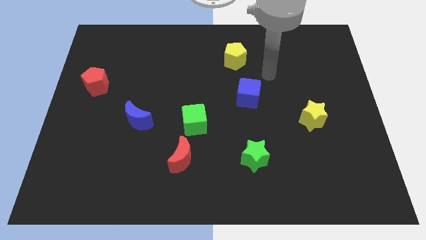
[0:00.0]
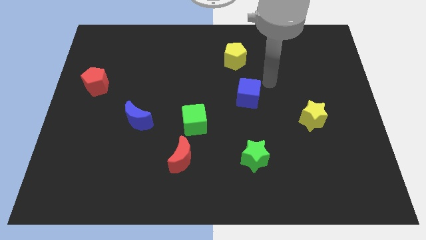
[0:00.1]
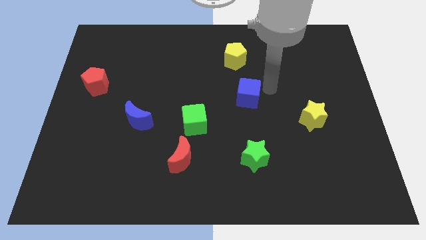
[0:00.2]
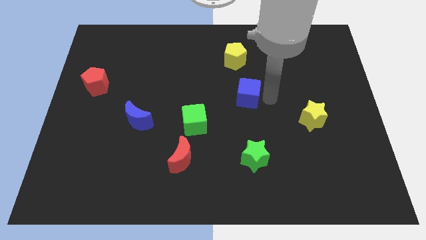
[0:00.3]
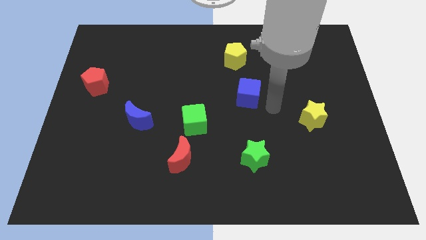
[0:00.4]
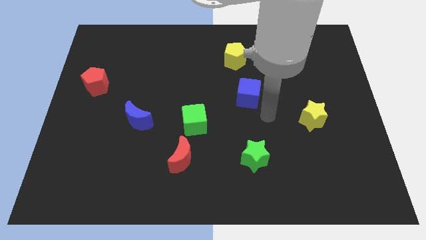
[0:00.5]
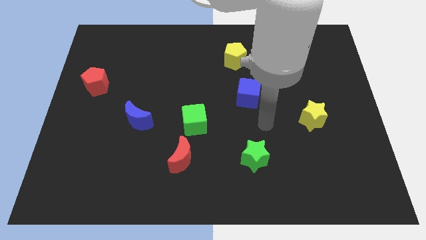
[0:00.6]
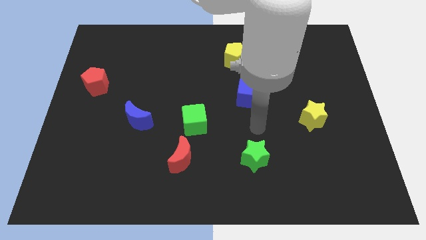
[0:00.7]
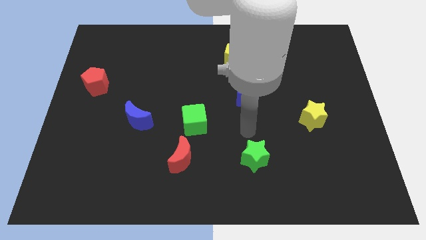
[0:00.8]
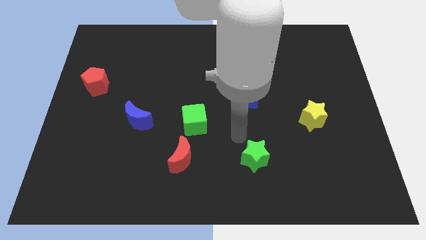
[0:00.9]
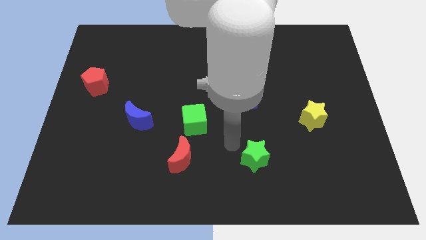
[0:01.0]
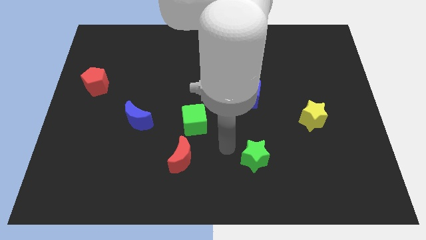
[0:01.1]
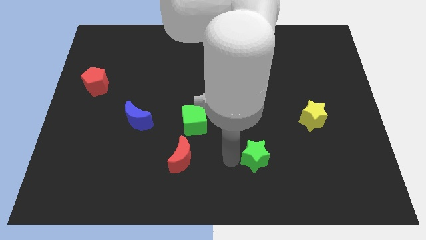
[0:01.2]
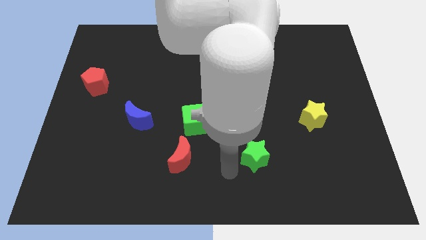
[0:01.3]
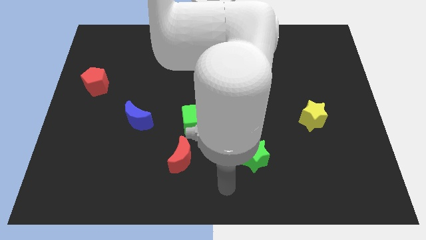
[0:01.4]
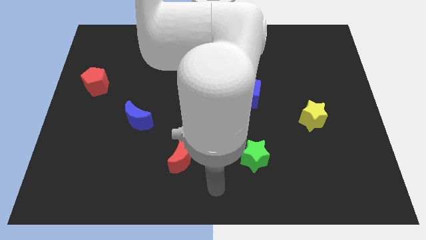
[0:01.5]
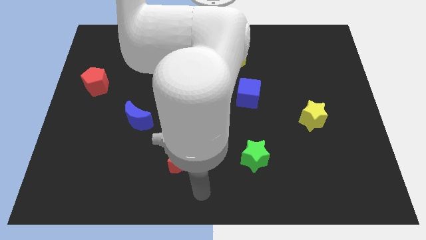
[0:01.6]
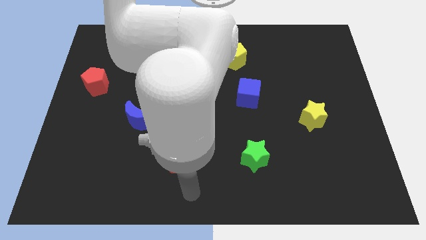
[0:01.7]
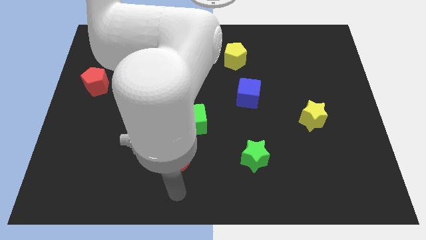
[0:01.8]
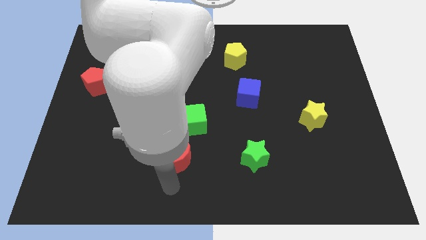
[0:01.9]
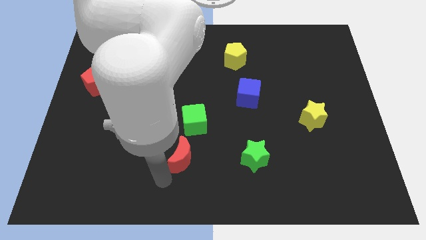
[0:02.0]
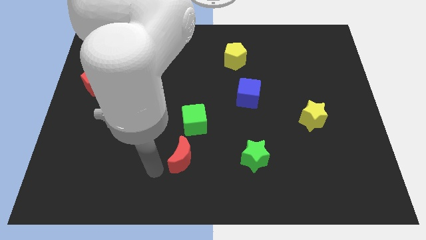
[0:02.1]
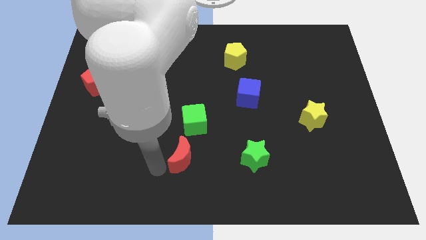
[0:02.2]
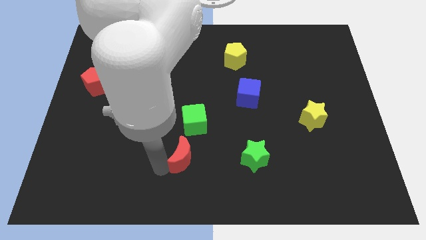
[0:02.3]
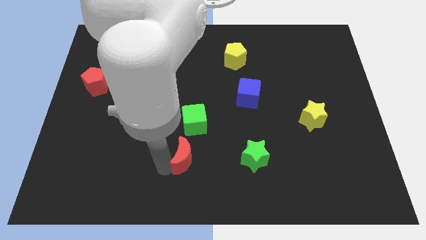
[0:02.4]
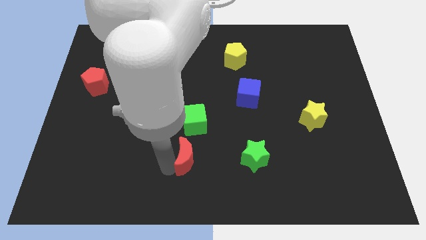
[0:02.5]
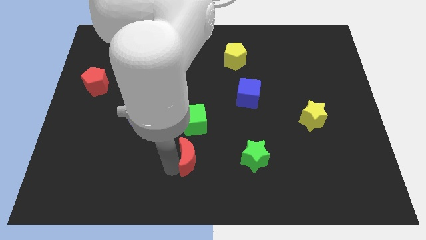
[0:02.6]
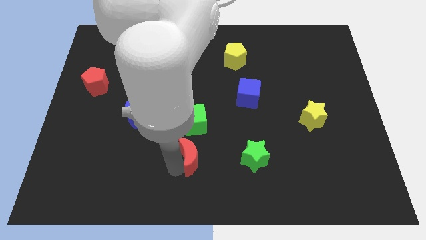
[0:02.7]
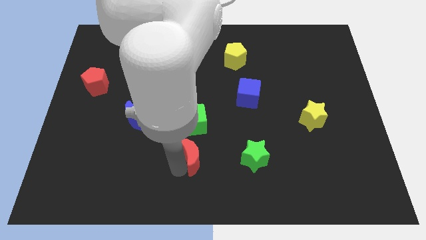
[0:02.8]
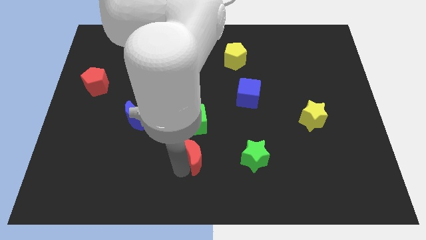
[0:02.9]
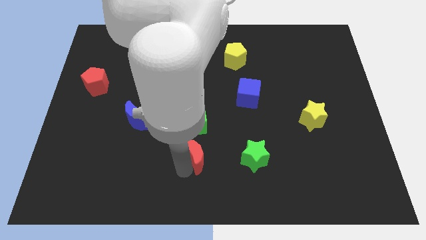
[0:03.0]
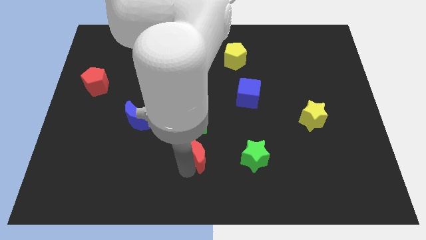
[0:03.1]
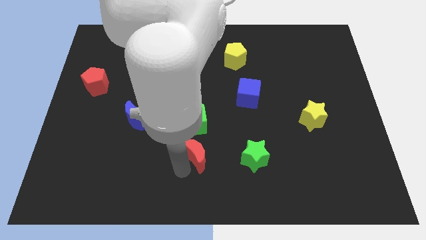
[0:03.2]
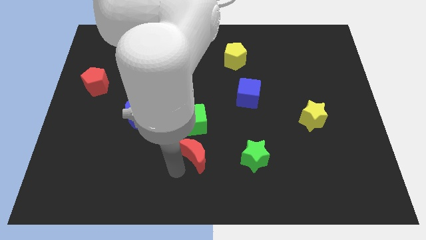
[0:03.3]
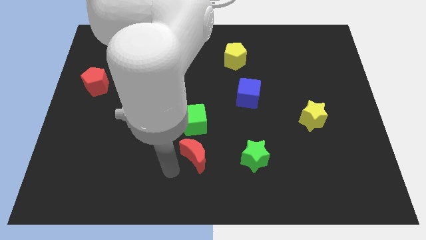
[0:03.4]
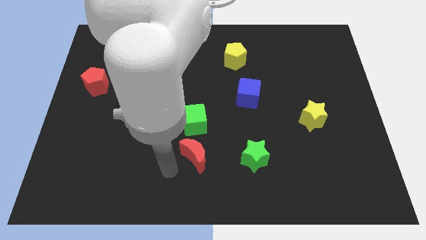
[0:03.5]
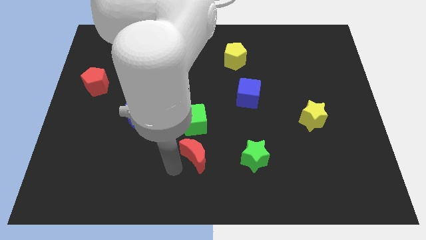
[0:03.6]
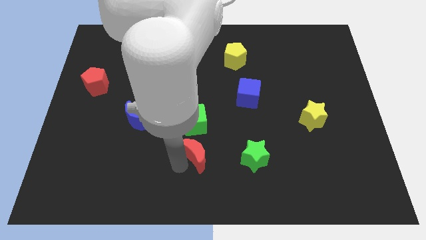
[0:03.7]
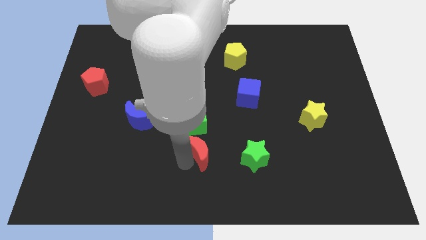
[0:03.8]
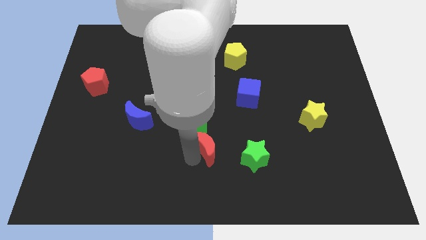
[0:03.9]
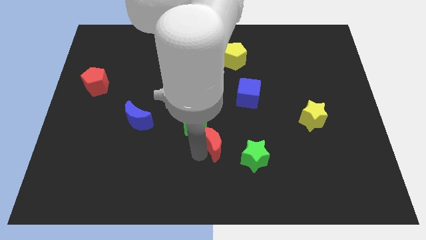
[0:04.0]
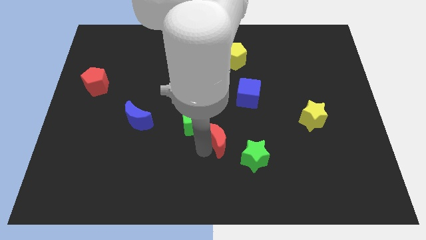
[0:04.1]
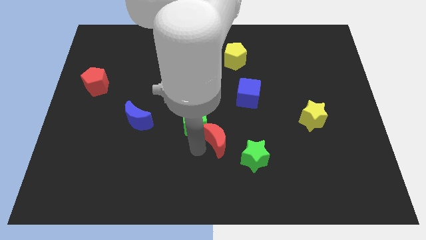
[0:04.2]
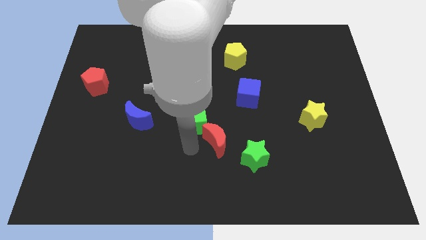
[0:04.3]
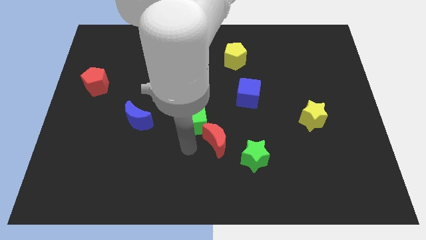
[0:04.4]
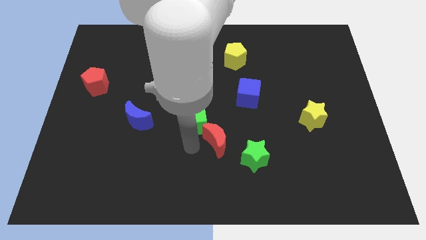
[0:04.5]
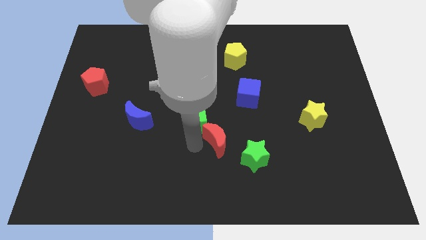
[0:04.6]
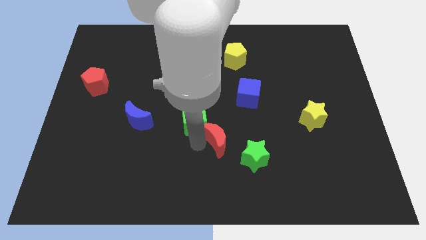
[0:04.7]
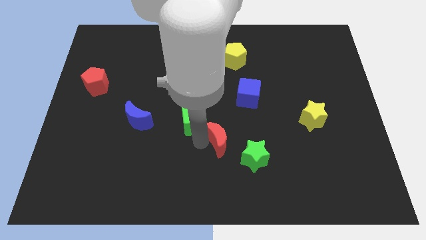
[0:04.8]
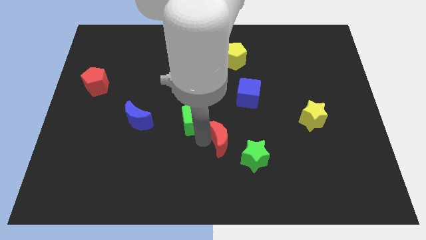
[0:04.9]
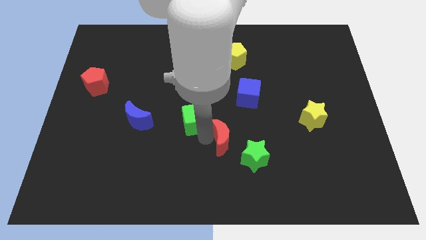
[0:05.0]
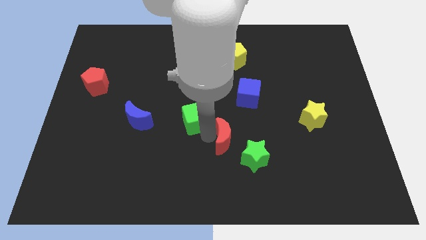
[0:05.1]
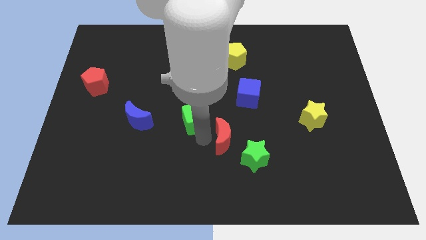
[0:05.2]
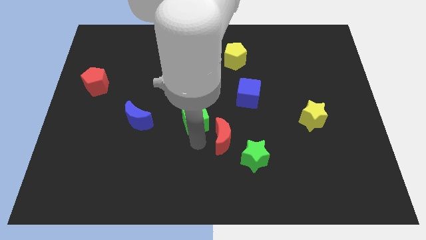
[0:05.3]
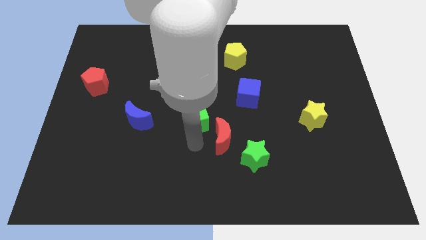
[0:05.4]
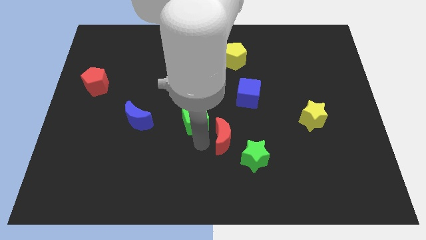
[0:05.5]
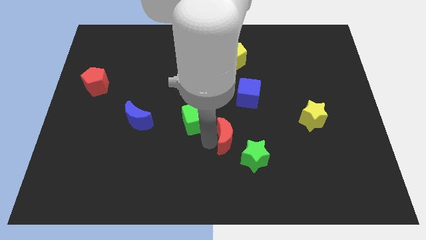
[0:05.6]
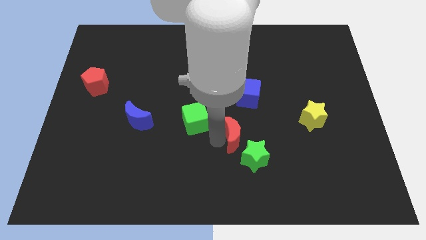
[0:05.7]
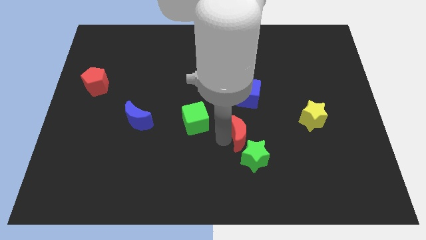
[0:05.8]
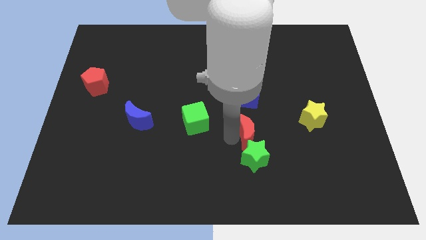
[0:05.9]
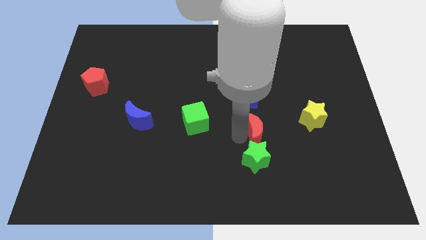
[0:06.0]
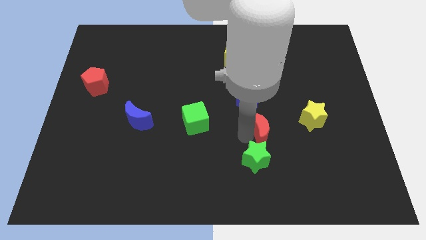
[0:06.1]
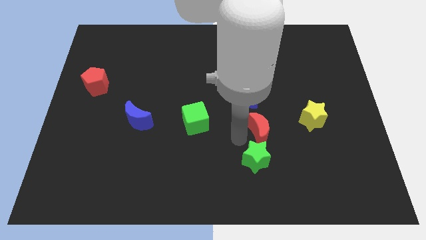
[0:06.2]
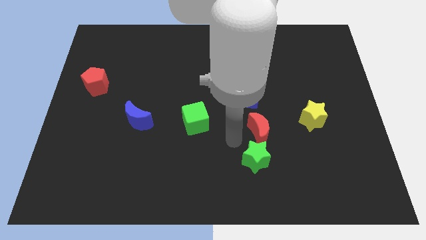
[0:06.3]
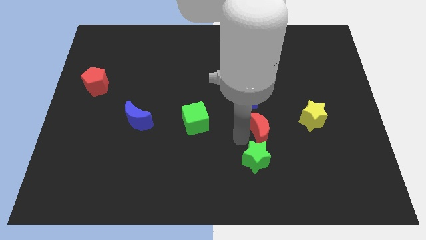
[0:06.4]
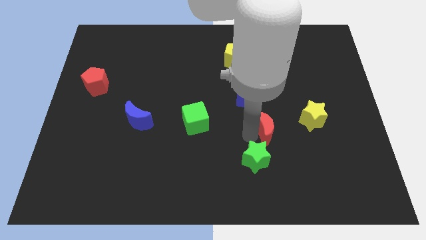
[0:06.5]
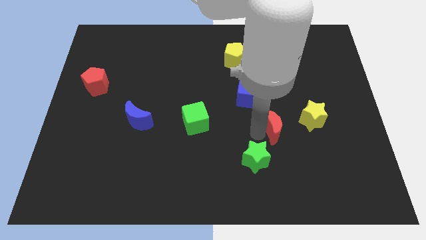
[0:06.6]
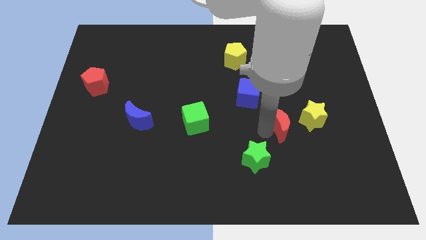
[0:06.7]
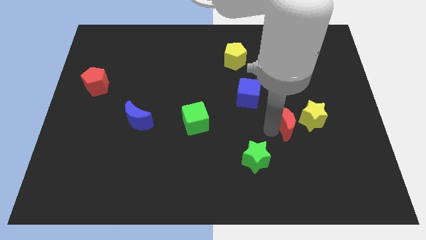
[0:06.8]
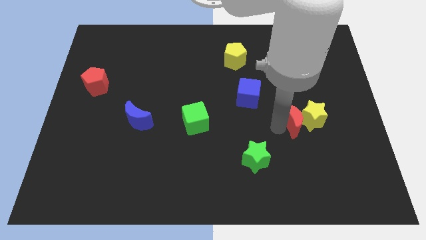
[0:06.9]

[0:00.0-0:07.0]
put the red moon towards the yellow star
